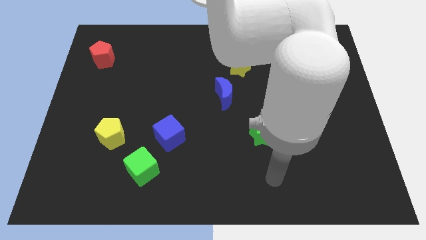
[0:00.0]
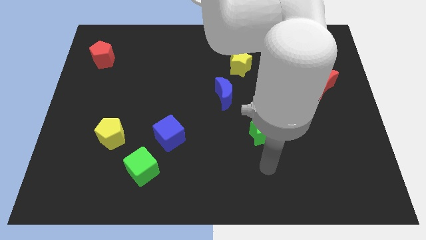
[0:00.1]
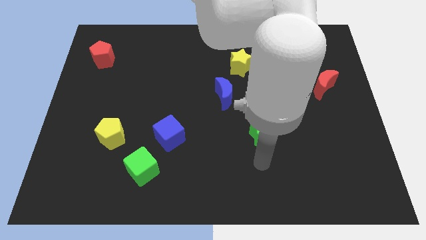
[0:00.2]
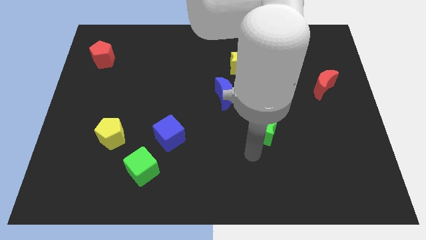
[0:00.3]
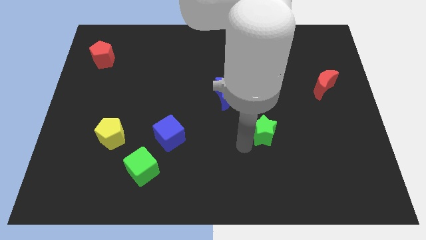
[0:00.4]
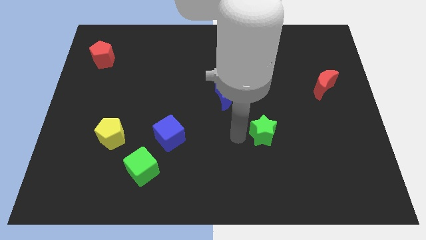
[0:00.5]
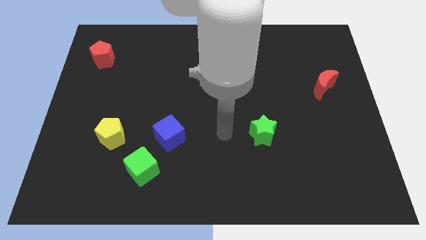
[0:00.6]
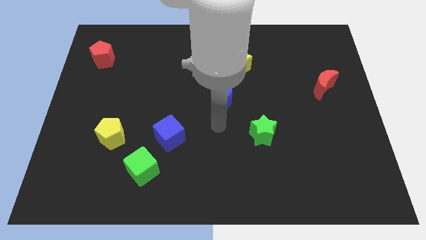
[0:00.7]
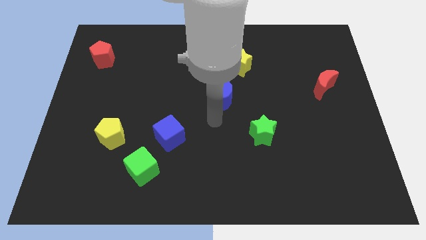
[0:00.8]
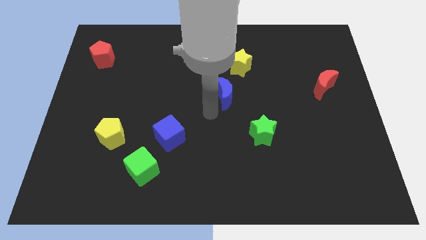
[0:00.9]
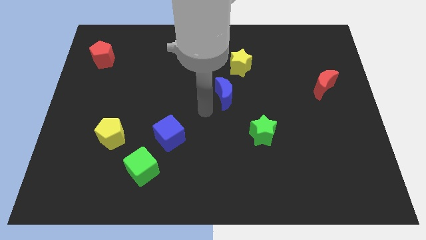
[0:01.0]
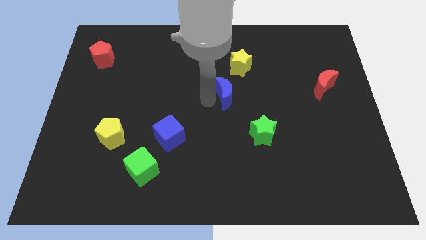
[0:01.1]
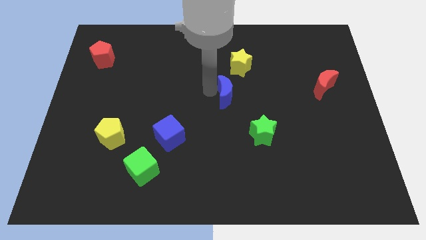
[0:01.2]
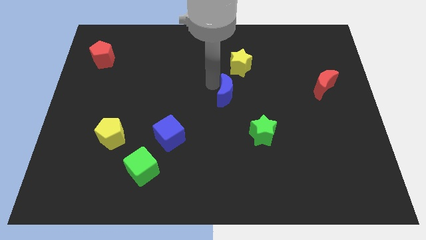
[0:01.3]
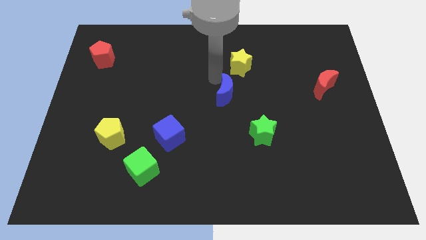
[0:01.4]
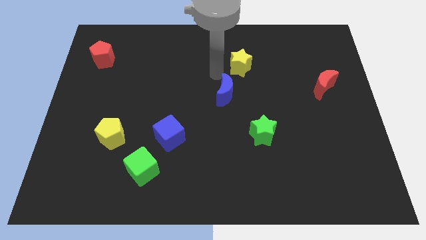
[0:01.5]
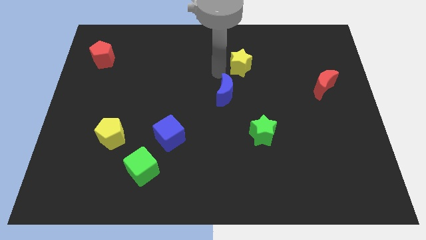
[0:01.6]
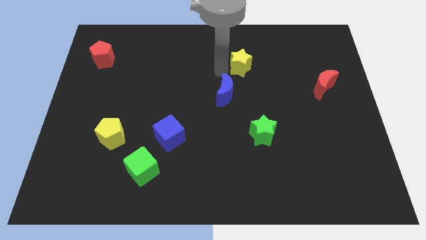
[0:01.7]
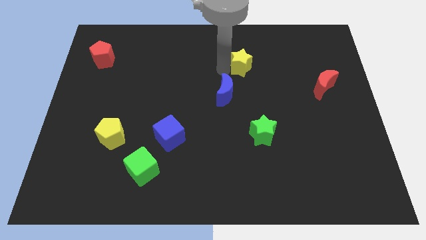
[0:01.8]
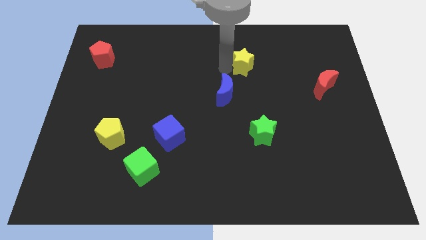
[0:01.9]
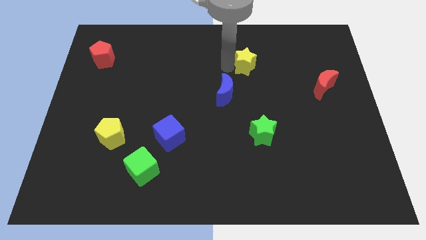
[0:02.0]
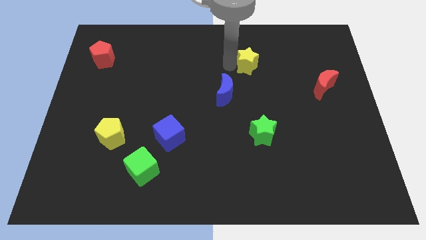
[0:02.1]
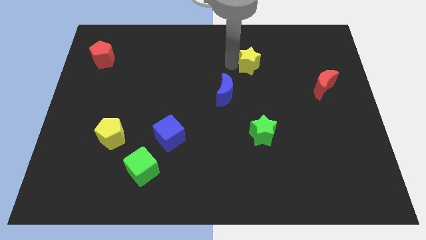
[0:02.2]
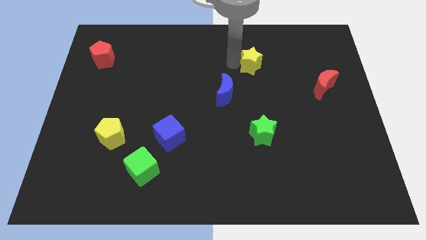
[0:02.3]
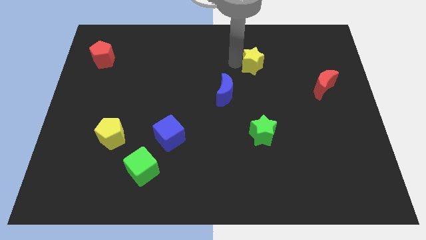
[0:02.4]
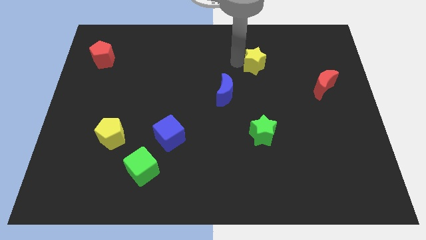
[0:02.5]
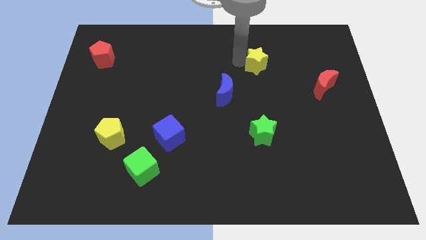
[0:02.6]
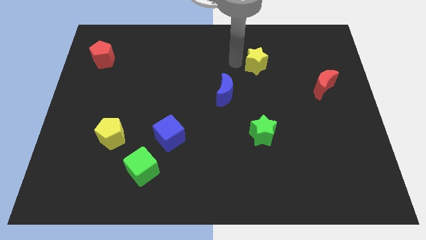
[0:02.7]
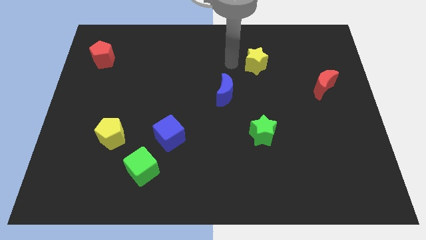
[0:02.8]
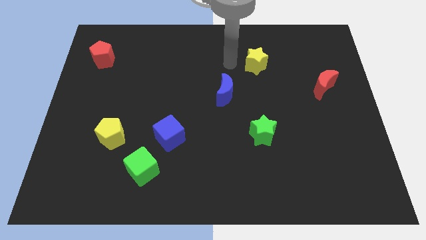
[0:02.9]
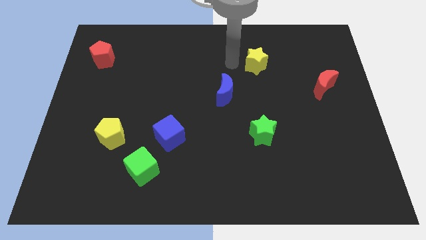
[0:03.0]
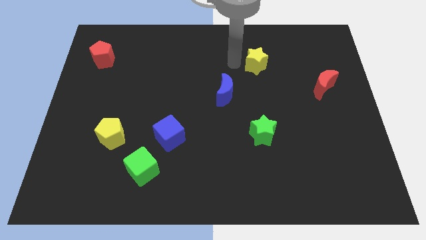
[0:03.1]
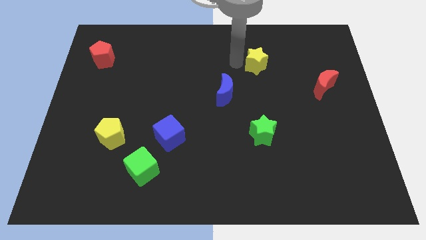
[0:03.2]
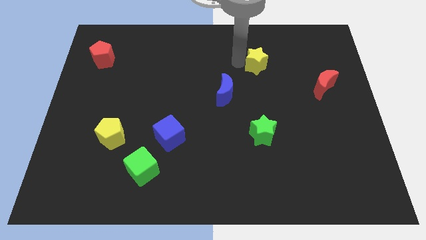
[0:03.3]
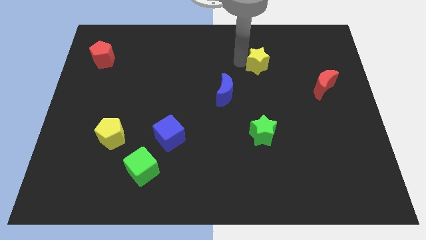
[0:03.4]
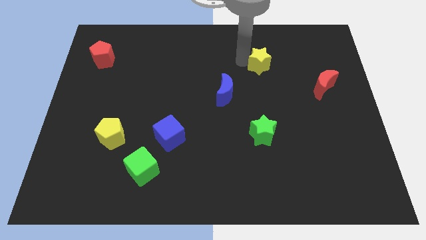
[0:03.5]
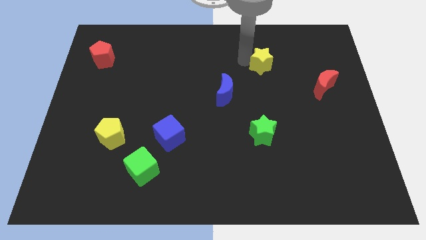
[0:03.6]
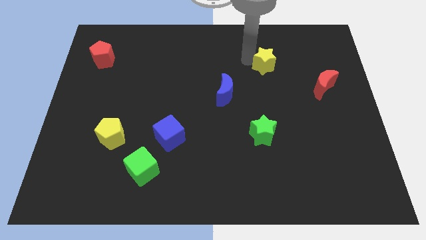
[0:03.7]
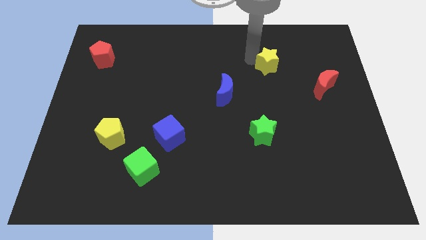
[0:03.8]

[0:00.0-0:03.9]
move the yellow star right a bit

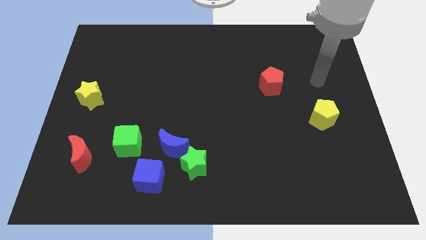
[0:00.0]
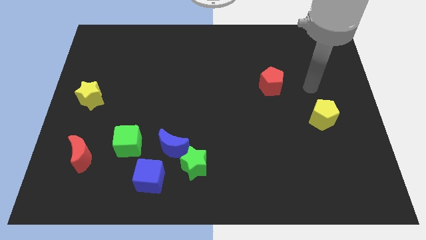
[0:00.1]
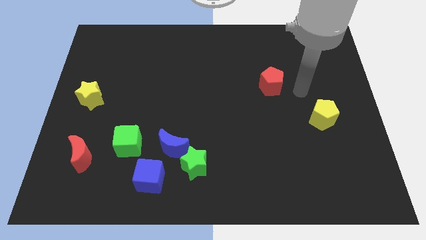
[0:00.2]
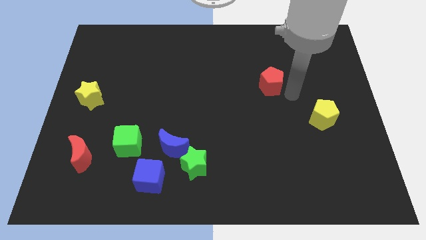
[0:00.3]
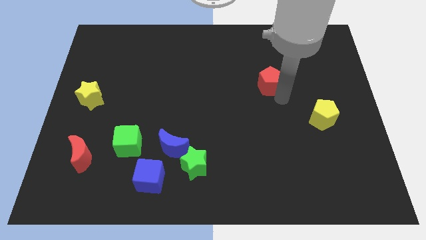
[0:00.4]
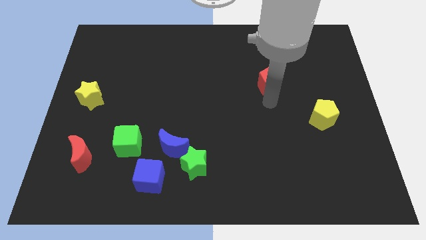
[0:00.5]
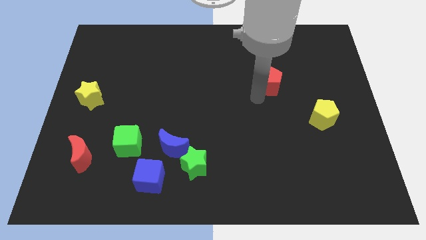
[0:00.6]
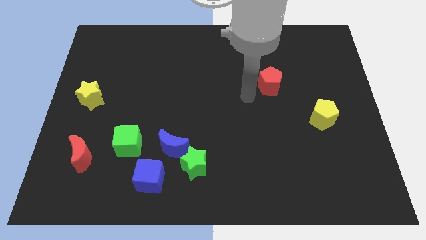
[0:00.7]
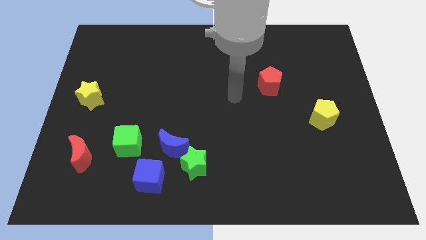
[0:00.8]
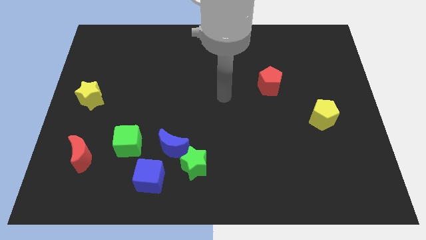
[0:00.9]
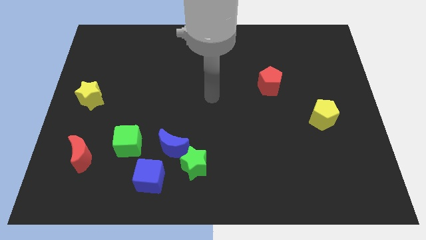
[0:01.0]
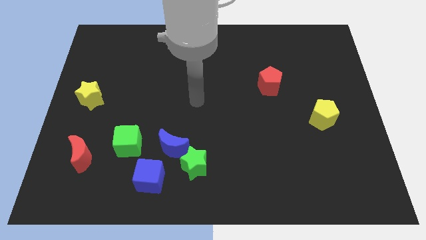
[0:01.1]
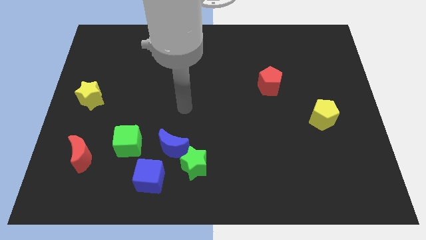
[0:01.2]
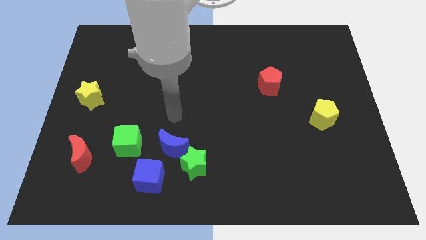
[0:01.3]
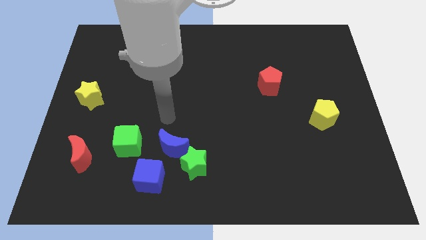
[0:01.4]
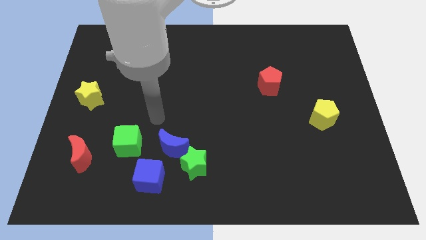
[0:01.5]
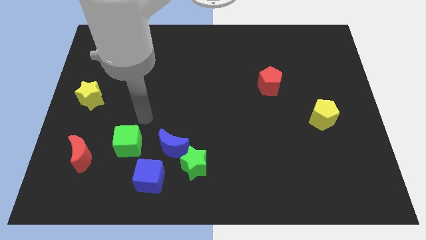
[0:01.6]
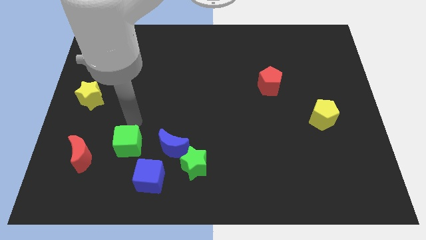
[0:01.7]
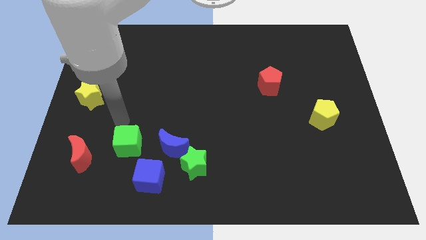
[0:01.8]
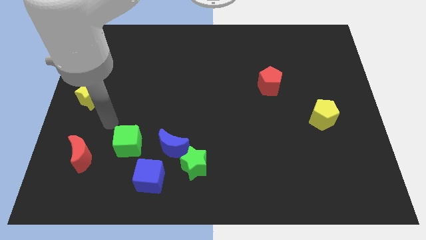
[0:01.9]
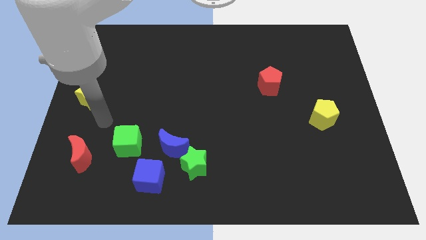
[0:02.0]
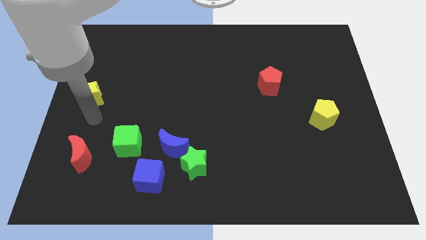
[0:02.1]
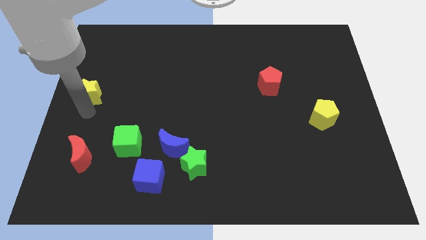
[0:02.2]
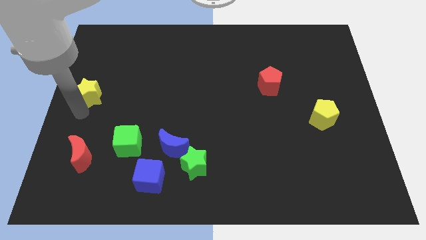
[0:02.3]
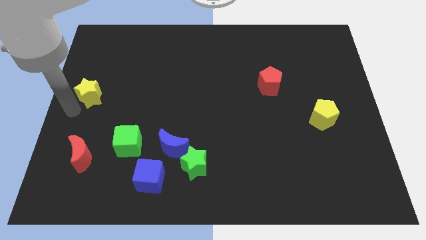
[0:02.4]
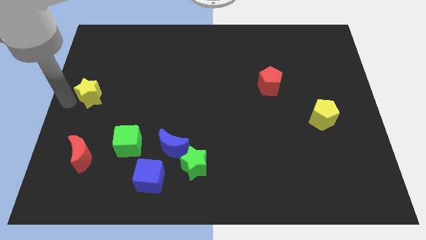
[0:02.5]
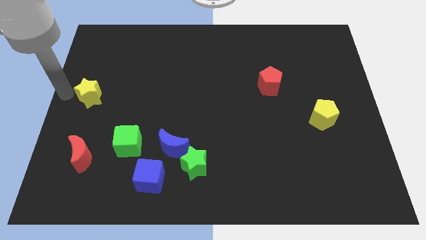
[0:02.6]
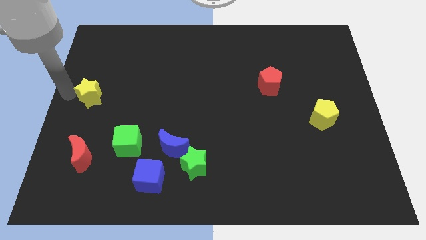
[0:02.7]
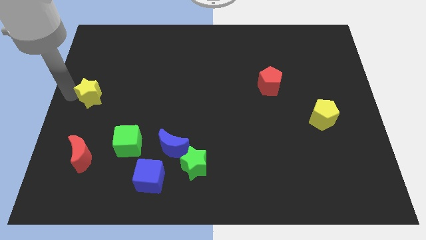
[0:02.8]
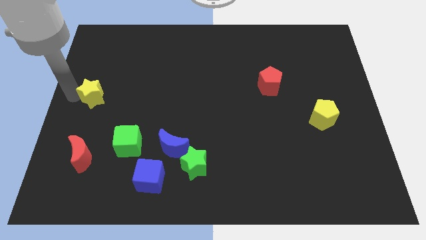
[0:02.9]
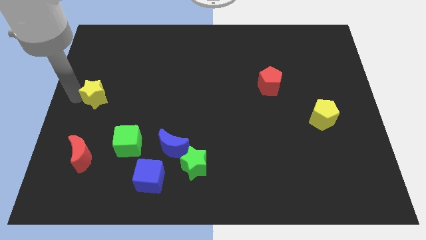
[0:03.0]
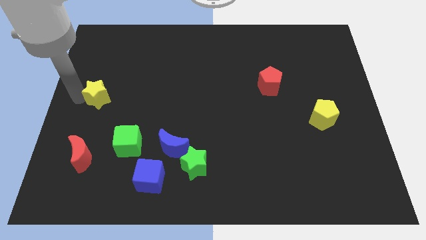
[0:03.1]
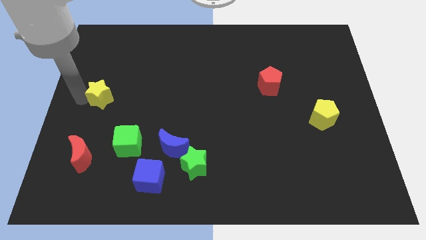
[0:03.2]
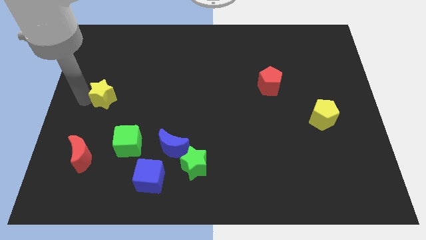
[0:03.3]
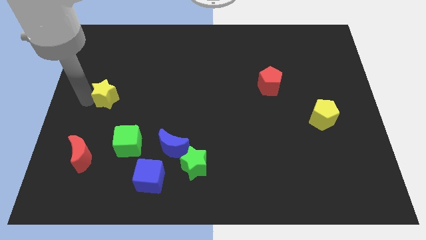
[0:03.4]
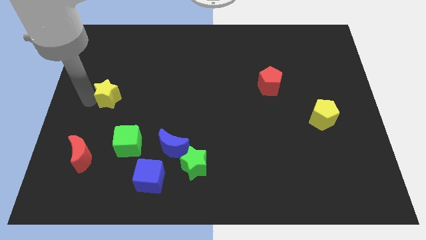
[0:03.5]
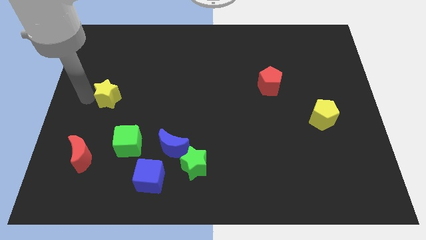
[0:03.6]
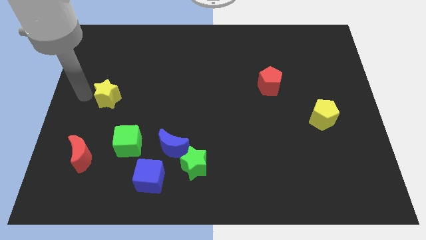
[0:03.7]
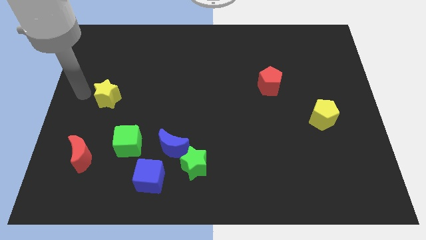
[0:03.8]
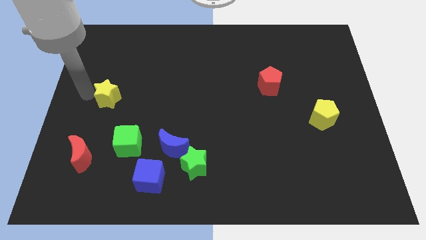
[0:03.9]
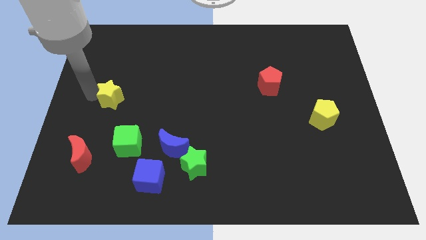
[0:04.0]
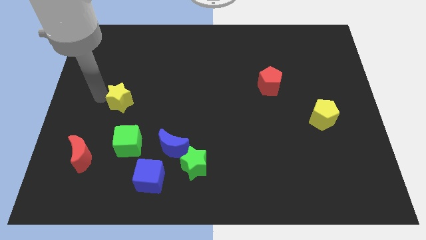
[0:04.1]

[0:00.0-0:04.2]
move the yellow star to the right somewhat
